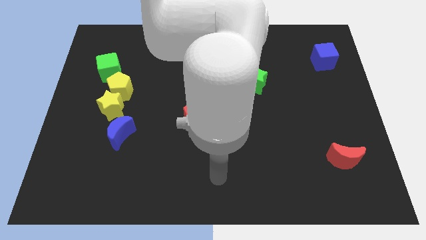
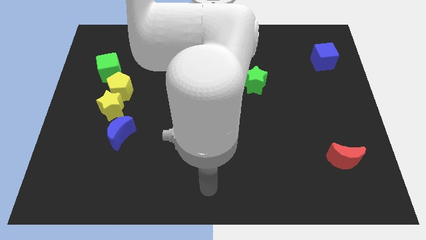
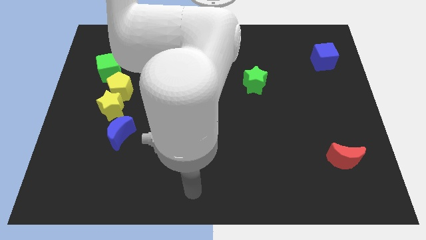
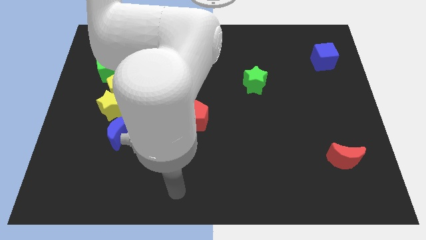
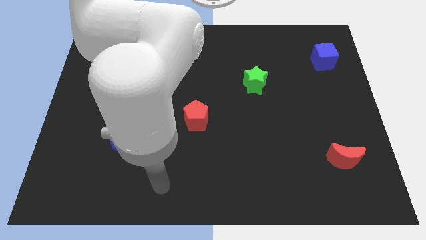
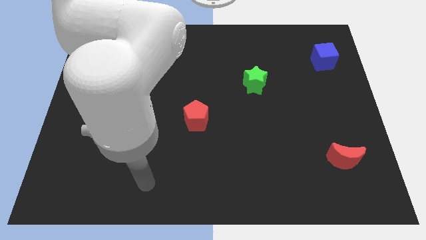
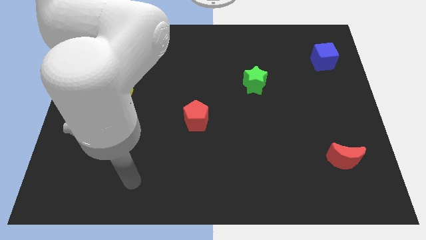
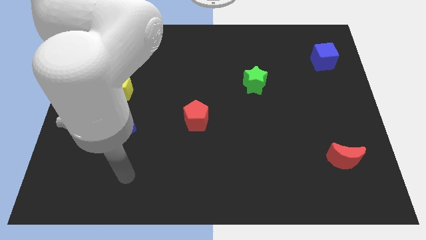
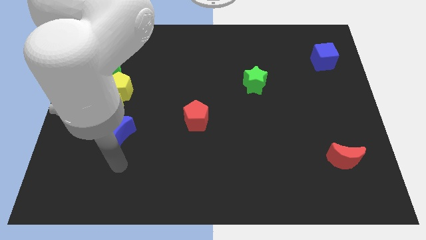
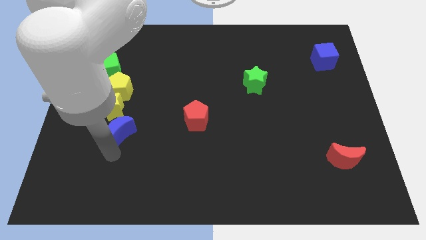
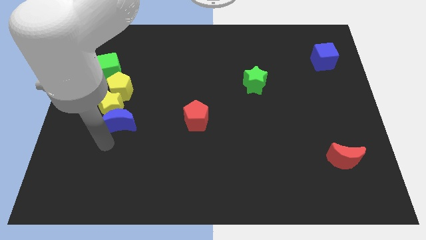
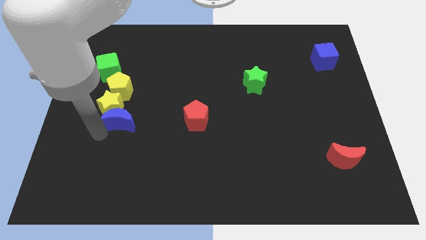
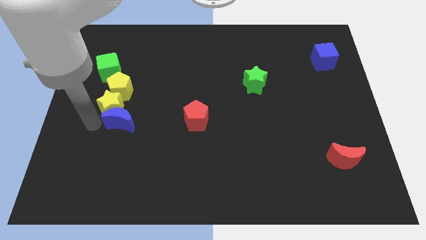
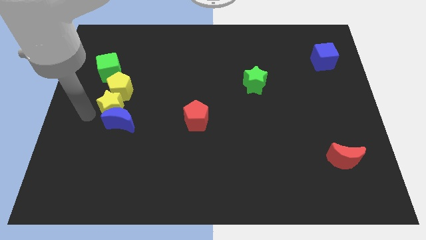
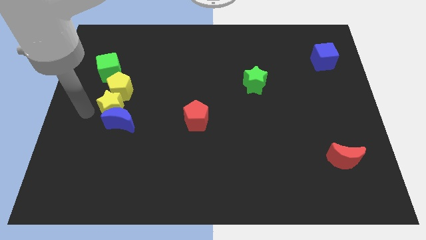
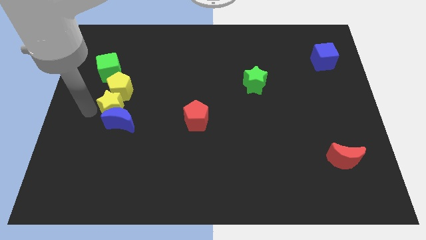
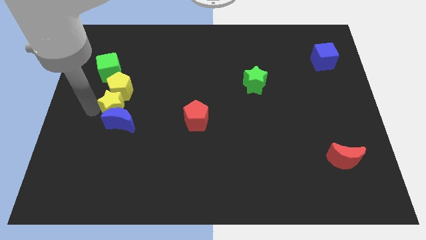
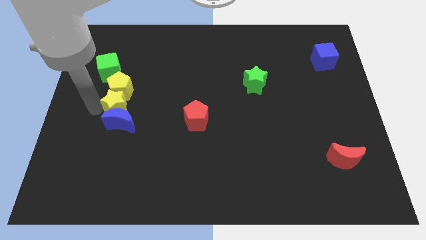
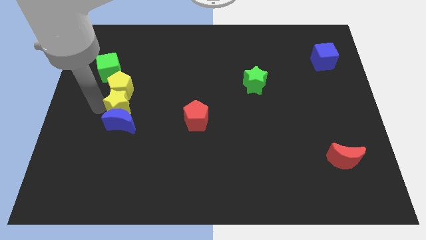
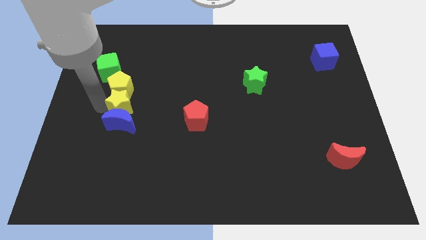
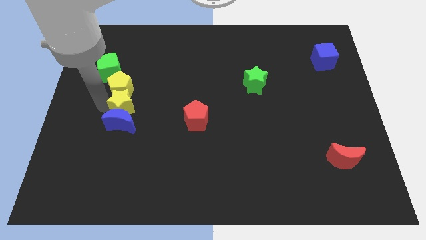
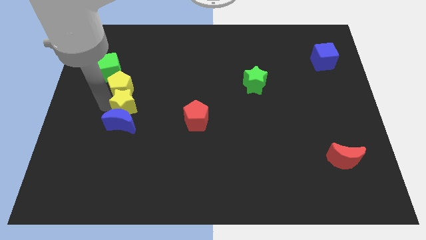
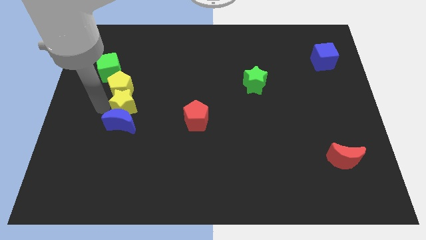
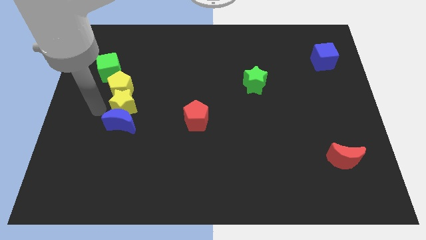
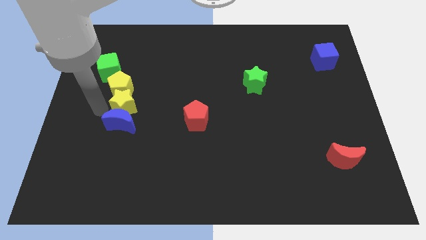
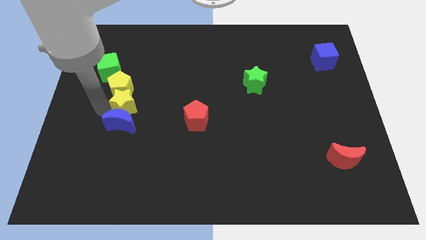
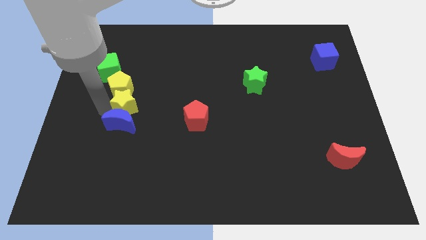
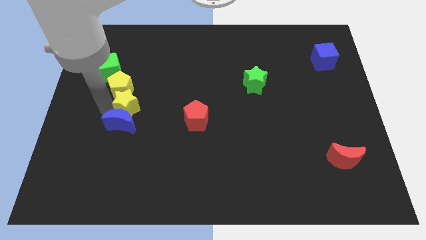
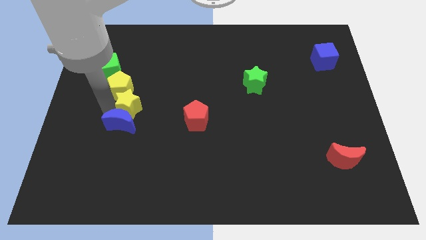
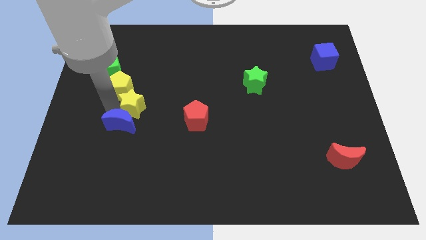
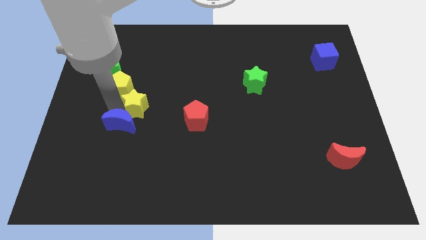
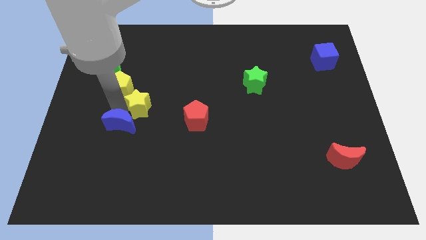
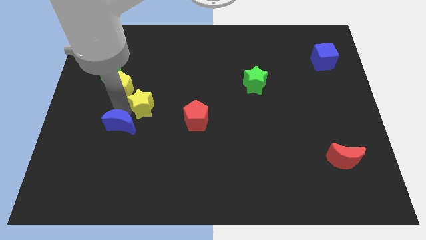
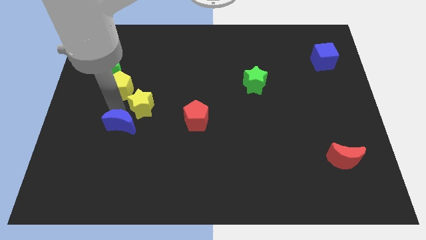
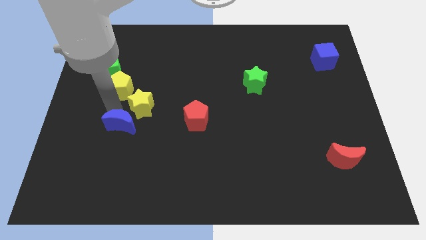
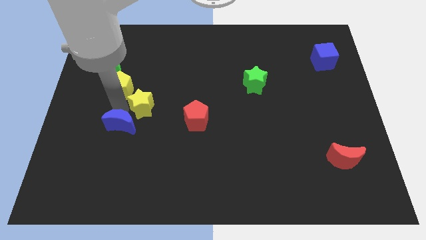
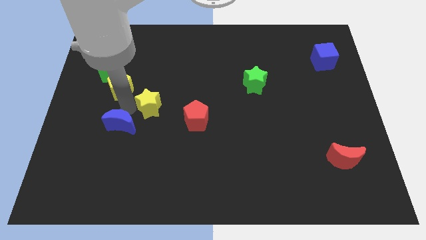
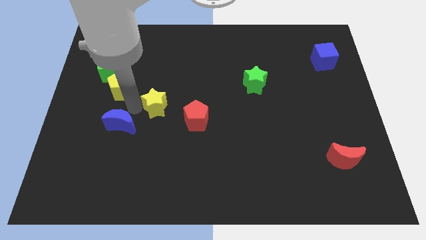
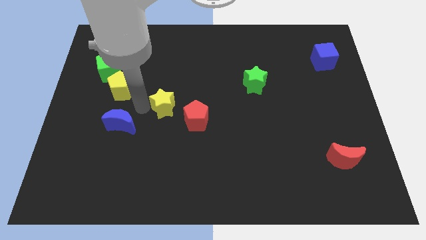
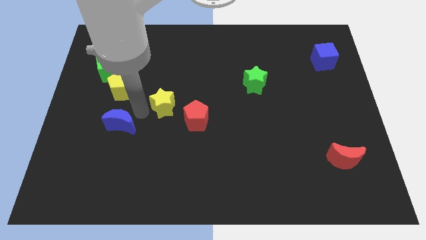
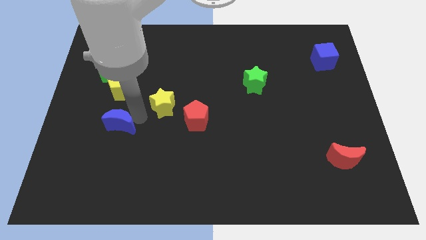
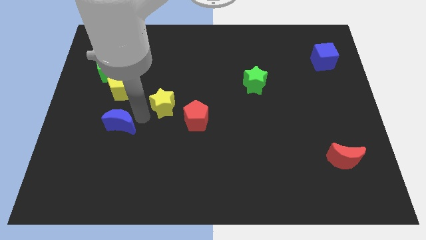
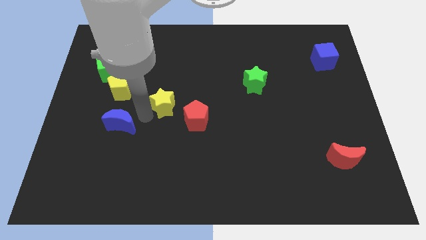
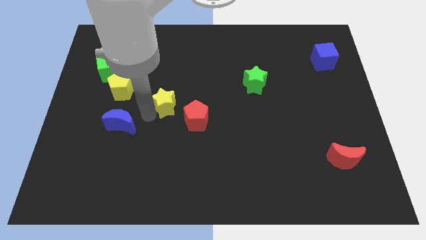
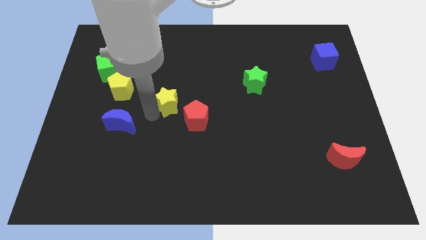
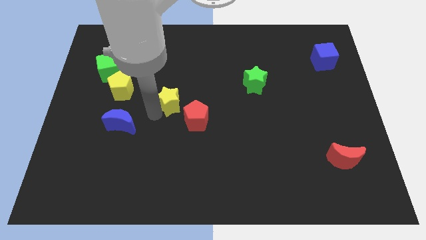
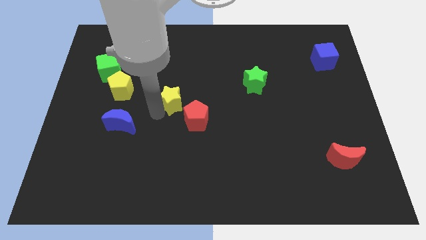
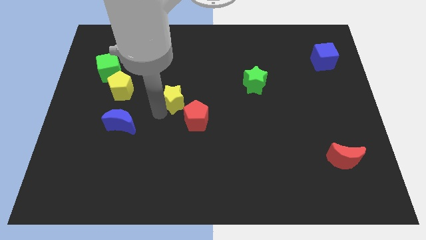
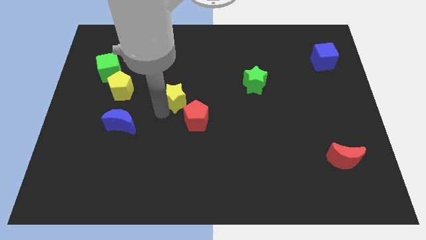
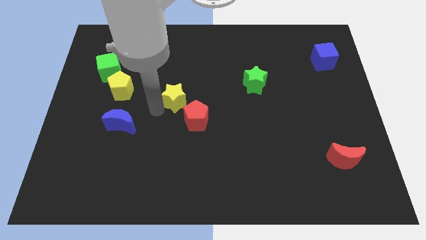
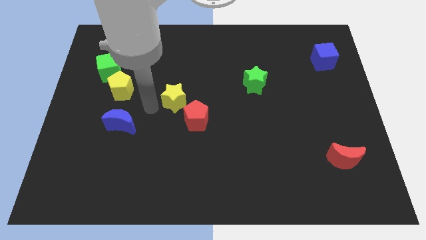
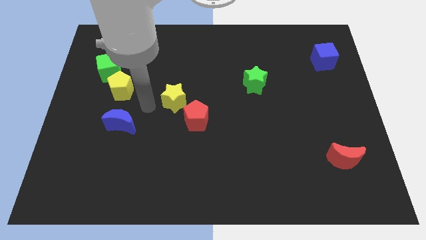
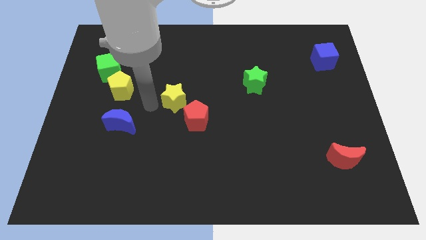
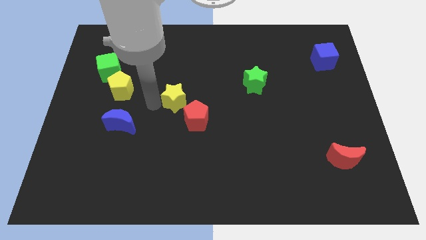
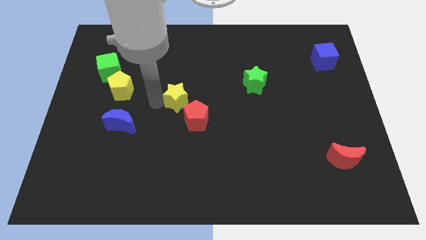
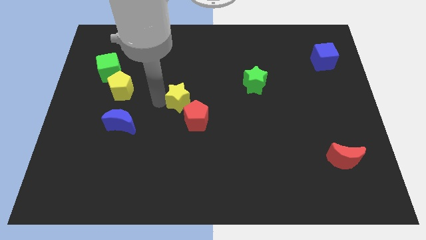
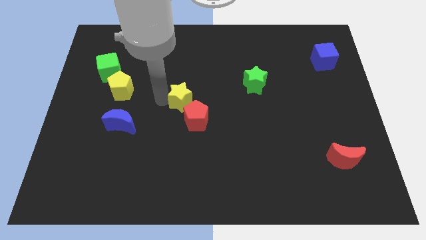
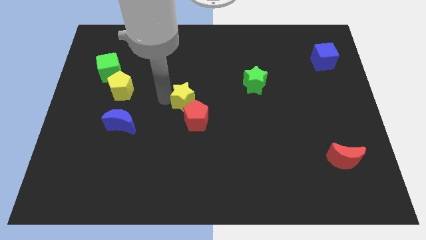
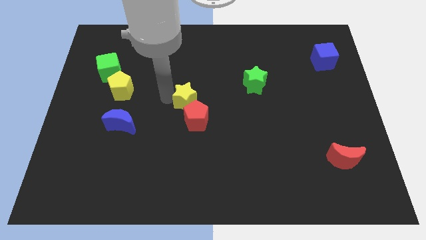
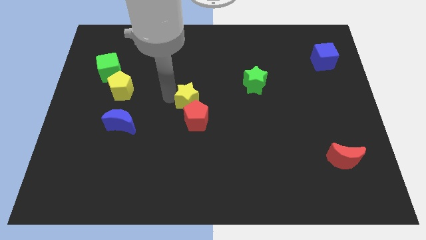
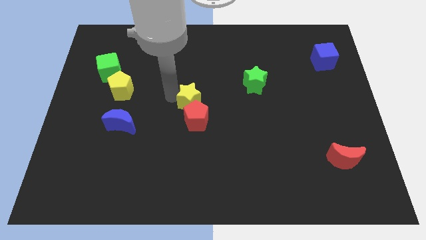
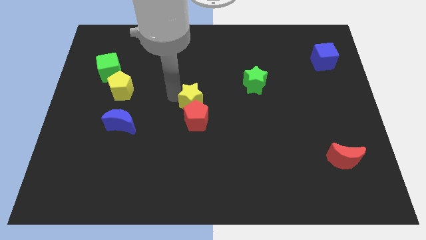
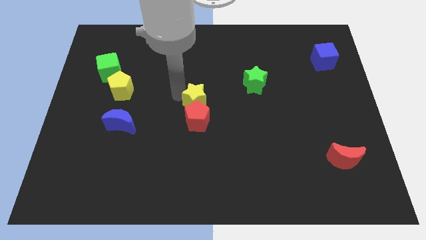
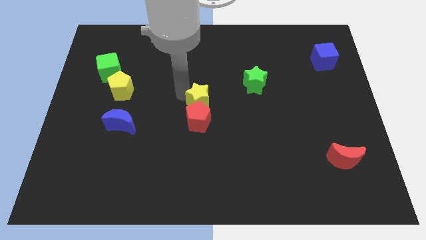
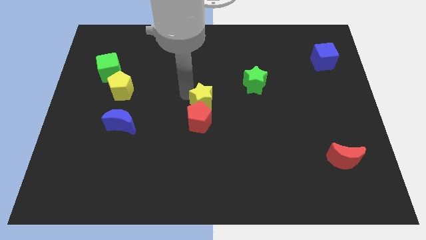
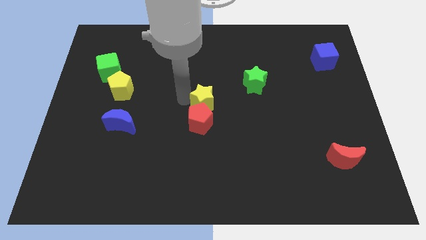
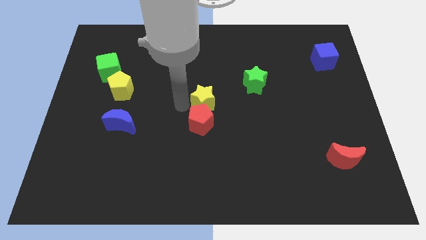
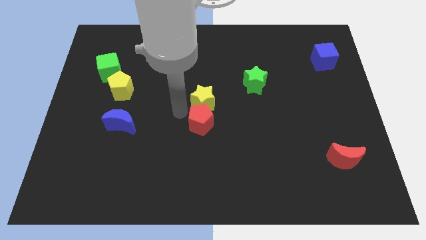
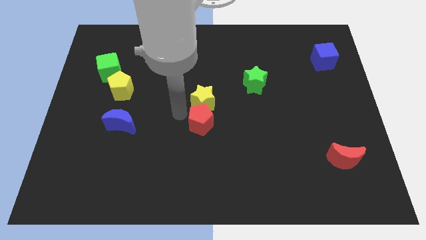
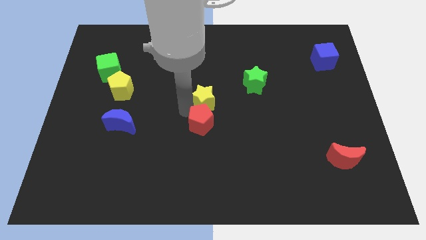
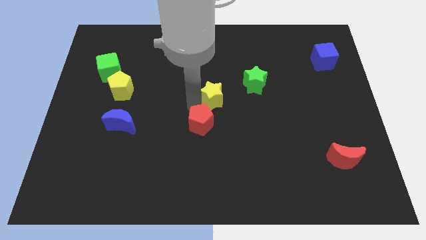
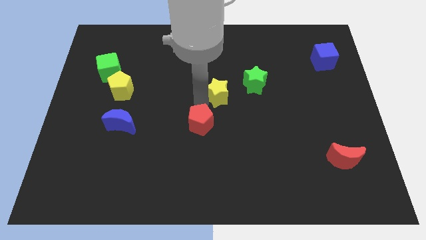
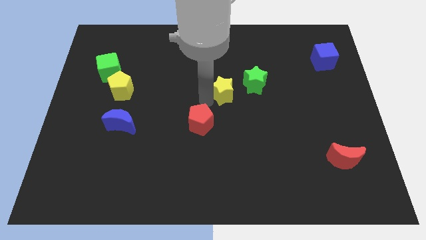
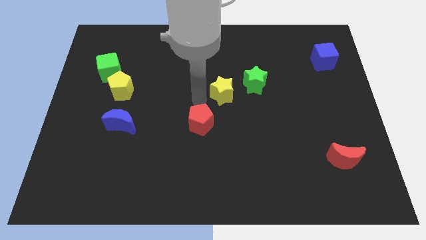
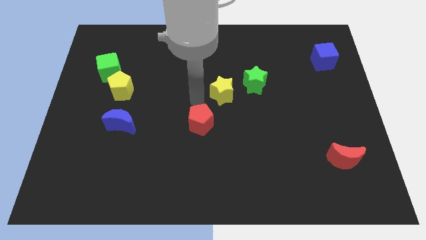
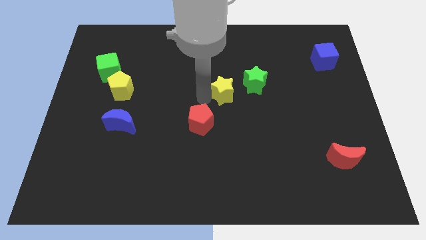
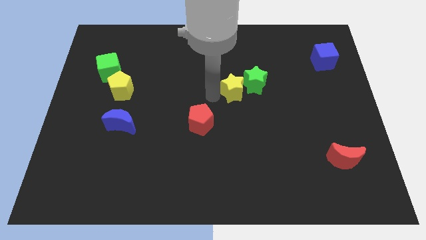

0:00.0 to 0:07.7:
push the yellow star to the green star

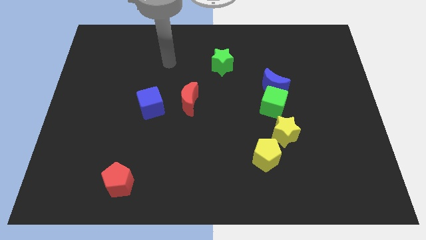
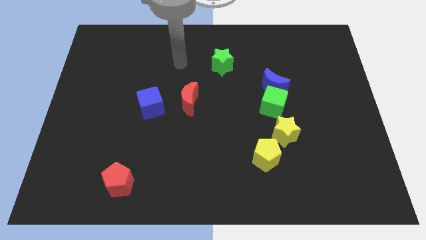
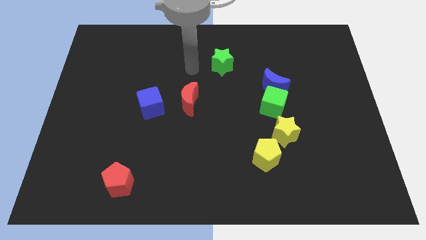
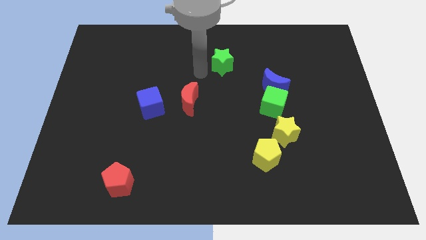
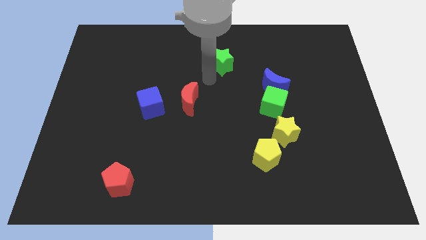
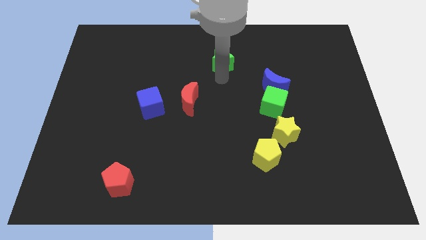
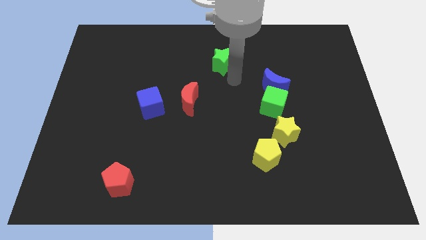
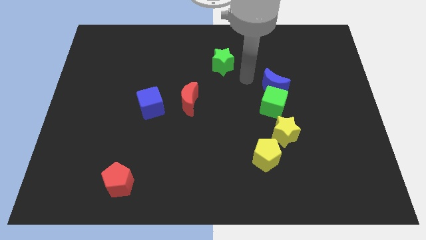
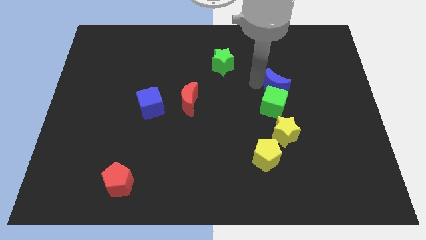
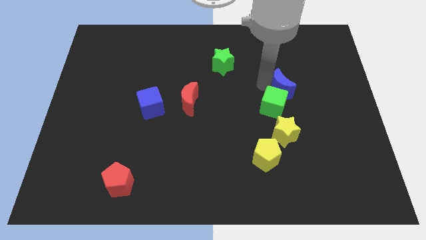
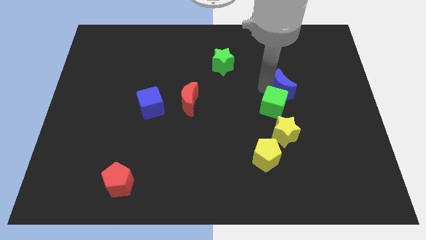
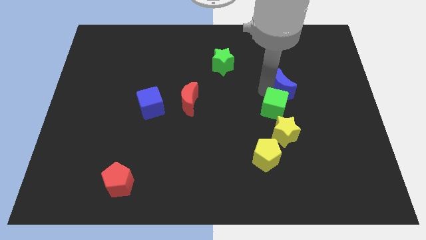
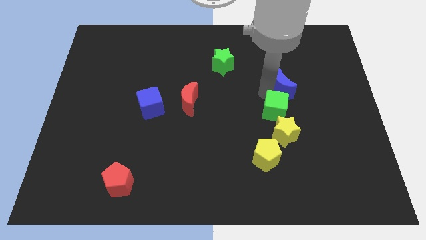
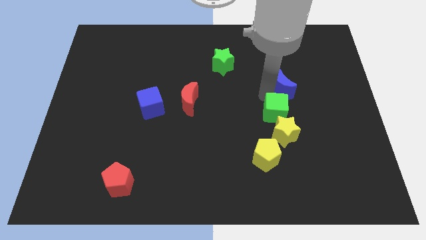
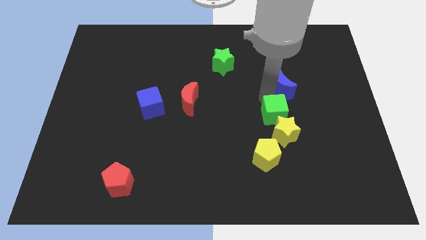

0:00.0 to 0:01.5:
push the green cube towards the yellow star
